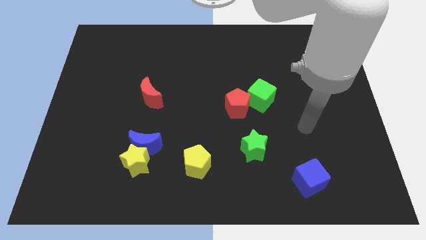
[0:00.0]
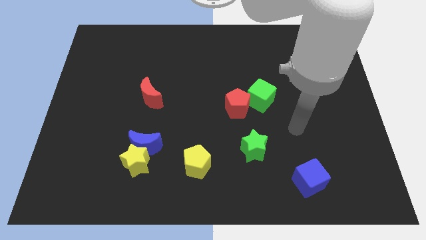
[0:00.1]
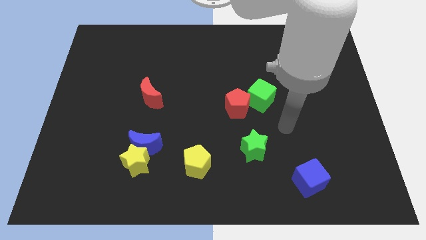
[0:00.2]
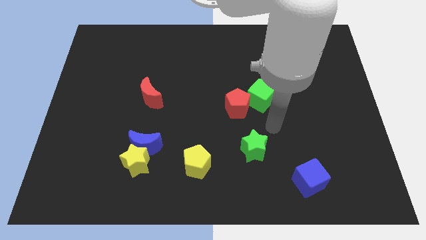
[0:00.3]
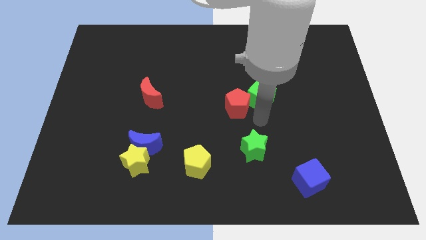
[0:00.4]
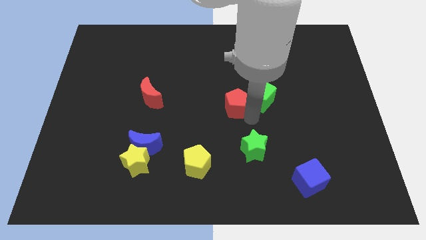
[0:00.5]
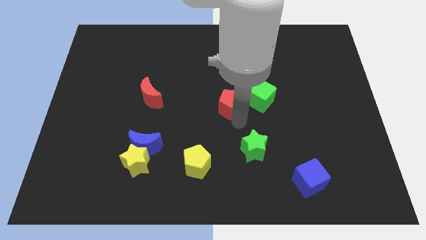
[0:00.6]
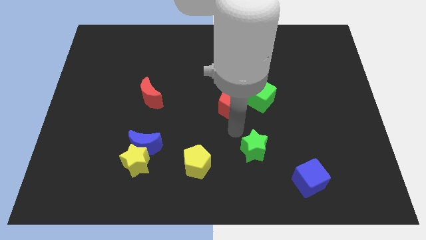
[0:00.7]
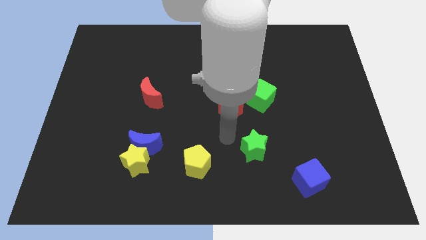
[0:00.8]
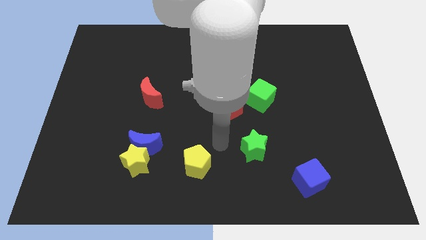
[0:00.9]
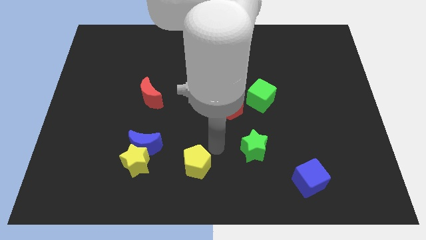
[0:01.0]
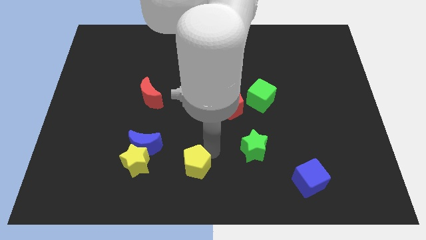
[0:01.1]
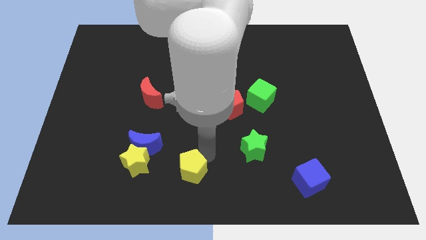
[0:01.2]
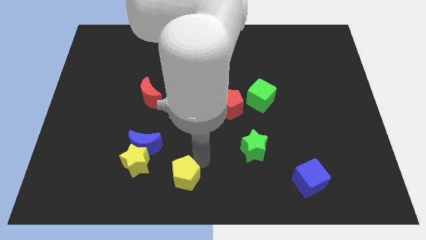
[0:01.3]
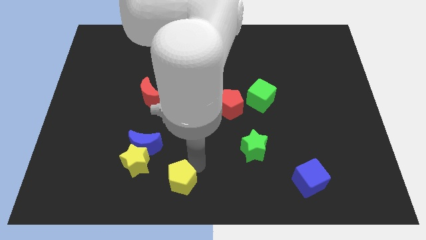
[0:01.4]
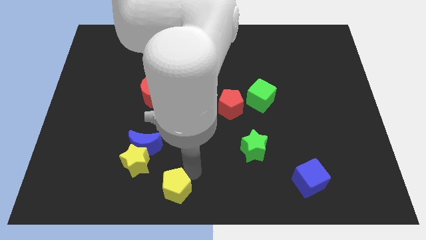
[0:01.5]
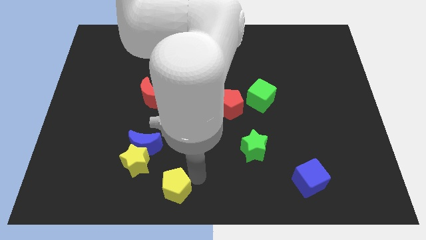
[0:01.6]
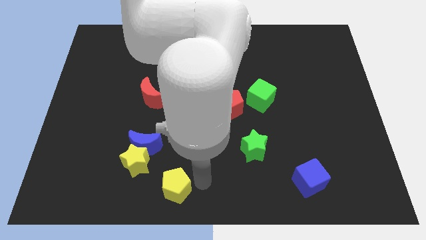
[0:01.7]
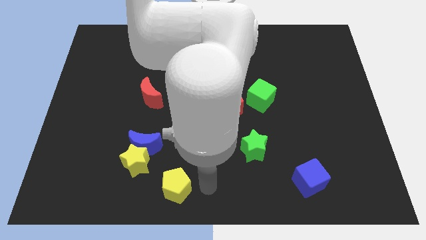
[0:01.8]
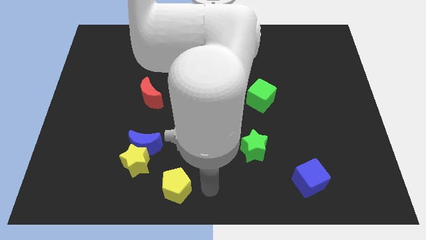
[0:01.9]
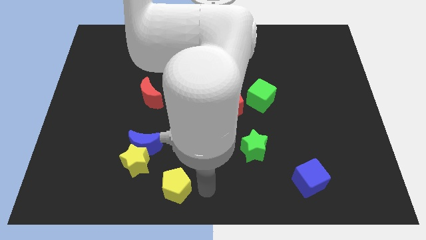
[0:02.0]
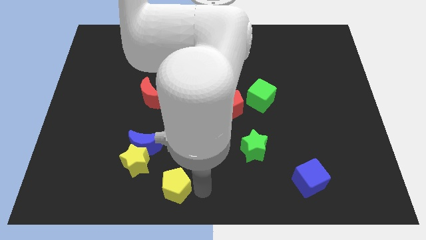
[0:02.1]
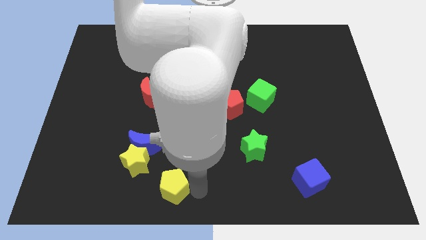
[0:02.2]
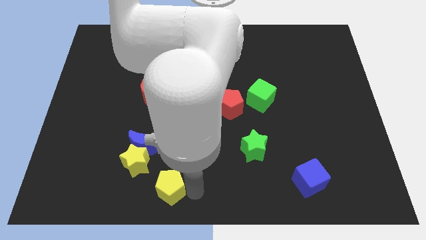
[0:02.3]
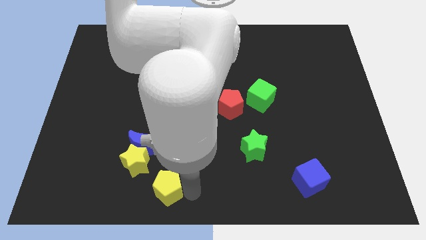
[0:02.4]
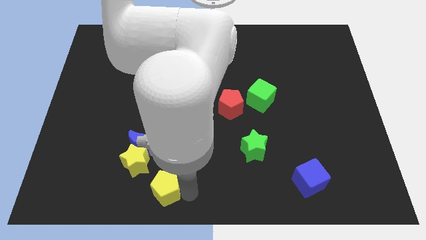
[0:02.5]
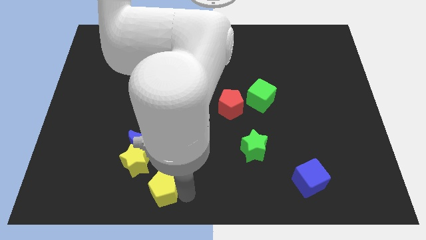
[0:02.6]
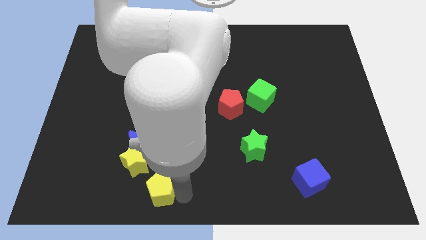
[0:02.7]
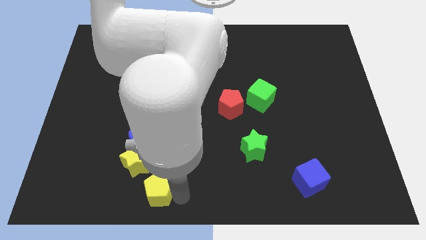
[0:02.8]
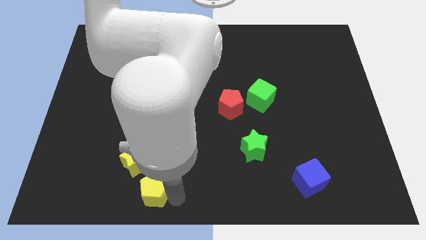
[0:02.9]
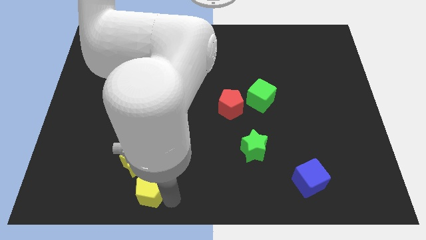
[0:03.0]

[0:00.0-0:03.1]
slightly slide the yellow pentagon left

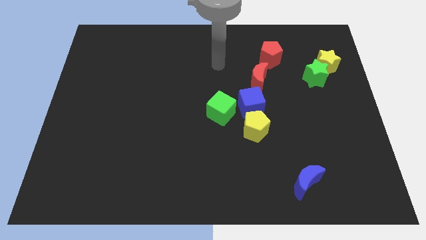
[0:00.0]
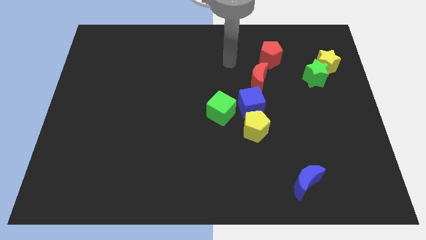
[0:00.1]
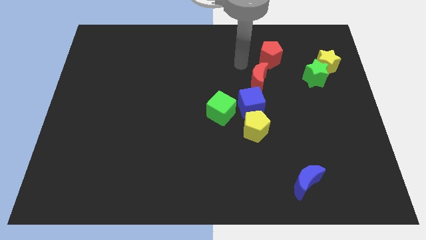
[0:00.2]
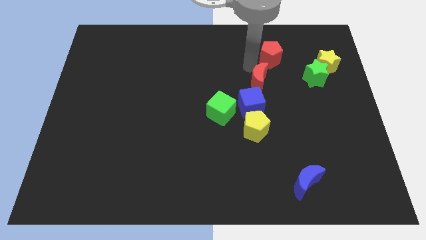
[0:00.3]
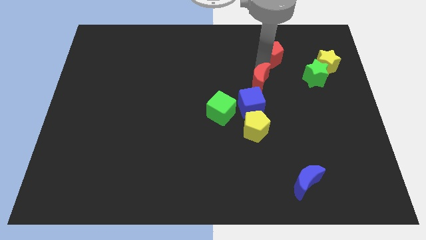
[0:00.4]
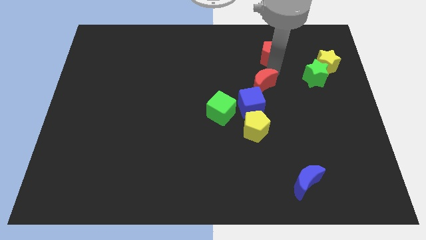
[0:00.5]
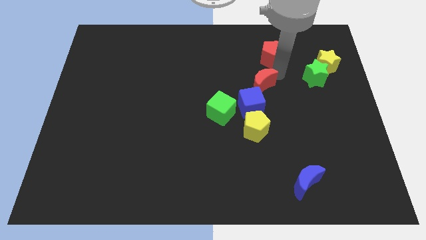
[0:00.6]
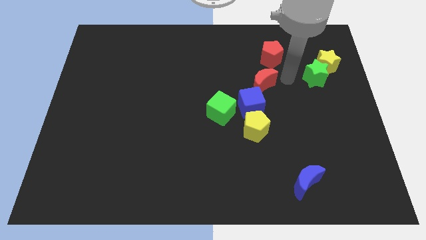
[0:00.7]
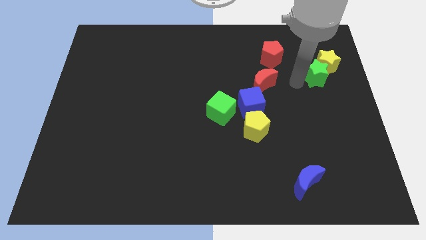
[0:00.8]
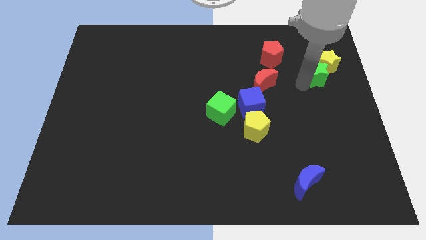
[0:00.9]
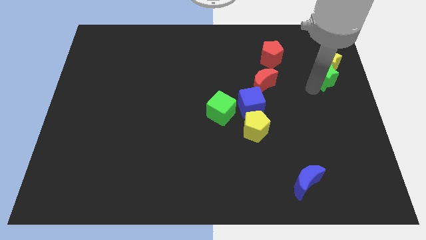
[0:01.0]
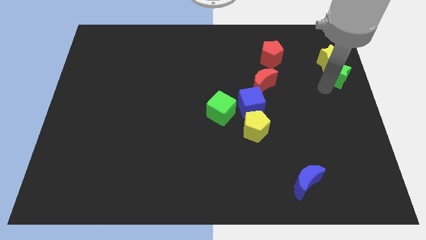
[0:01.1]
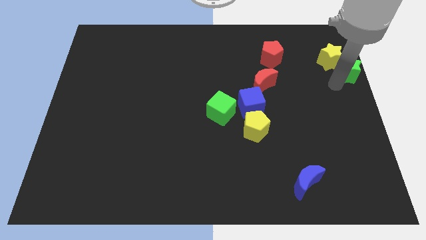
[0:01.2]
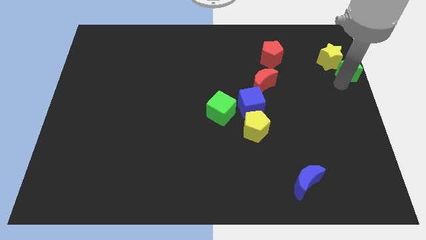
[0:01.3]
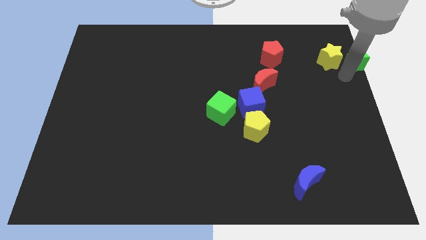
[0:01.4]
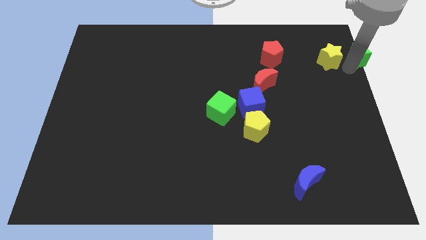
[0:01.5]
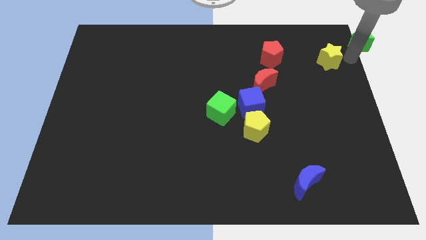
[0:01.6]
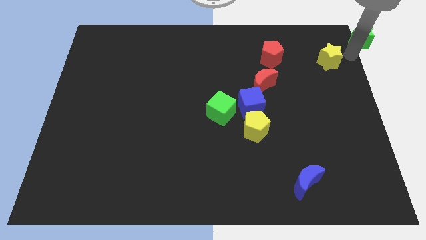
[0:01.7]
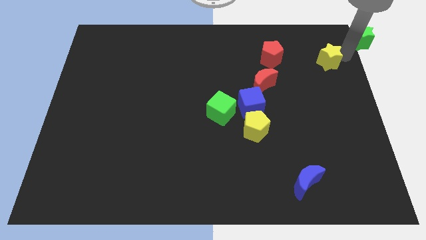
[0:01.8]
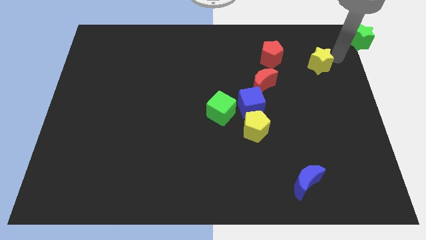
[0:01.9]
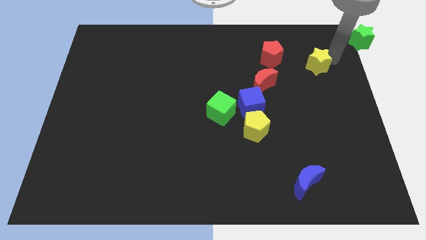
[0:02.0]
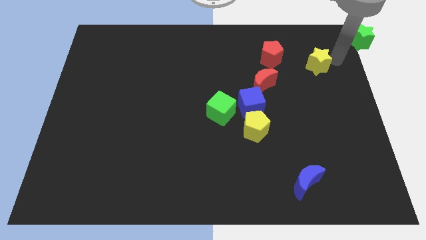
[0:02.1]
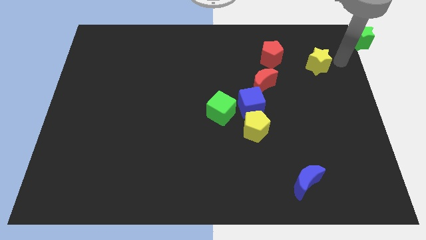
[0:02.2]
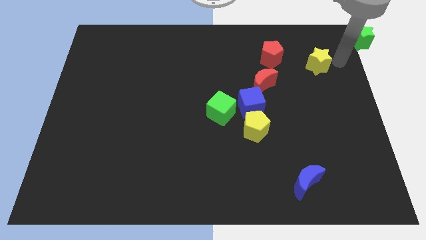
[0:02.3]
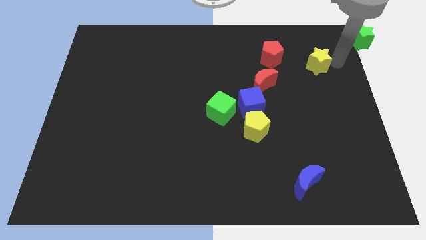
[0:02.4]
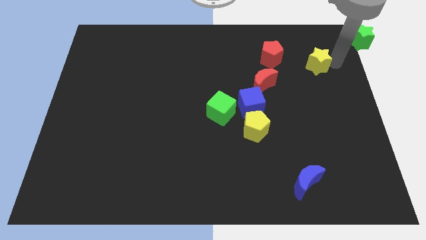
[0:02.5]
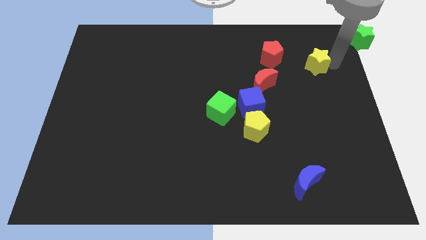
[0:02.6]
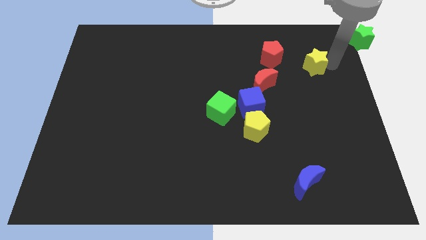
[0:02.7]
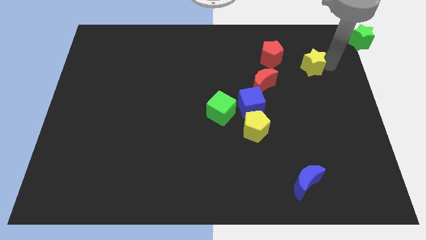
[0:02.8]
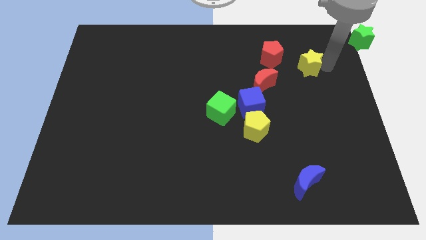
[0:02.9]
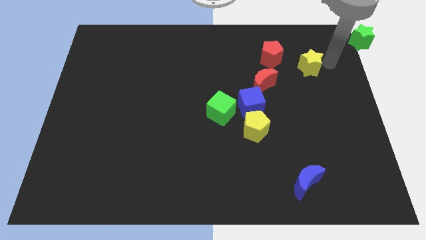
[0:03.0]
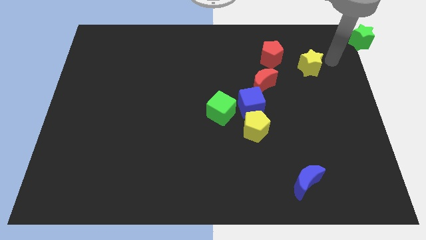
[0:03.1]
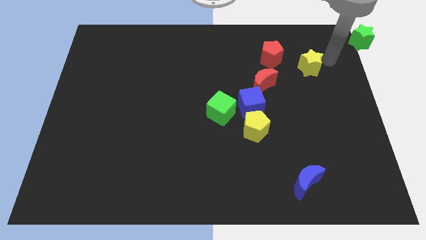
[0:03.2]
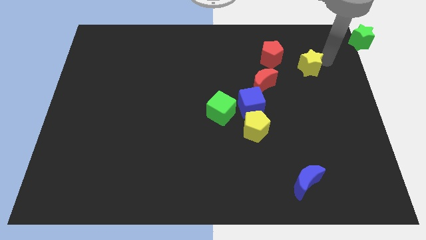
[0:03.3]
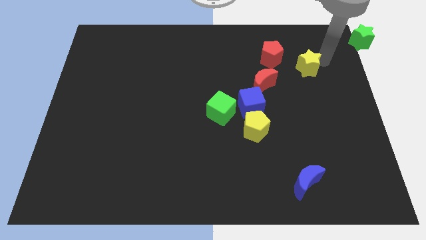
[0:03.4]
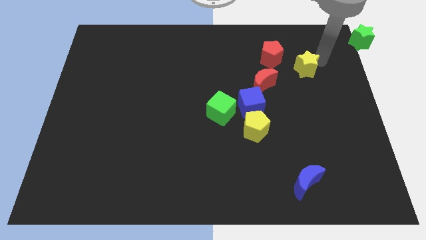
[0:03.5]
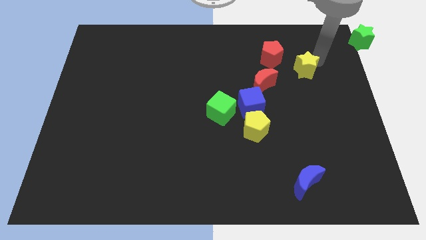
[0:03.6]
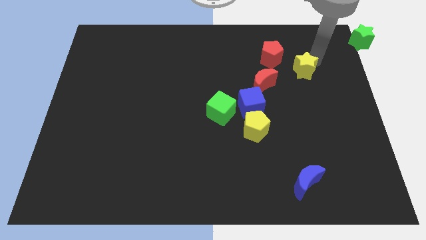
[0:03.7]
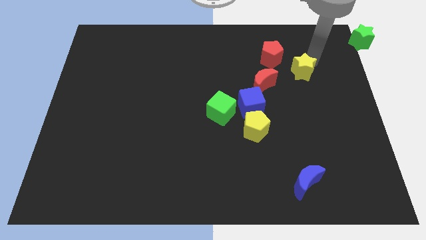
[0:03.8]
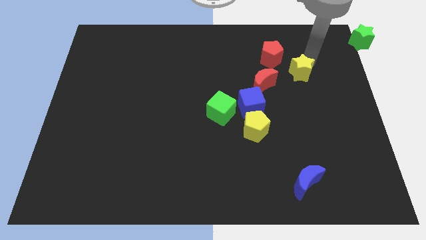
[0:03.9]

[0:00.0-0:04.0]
slightly push the yellow star left

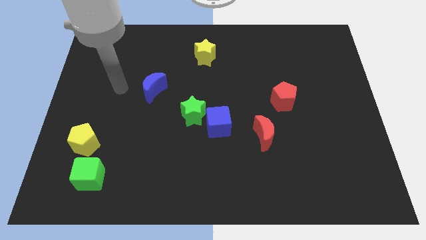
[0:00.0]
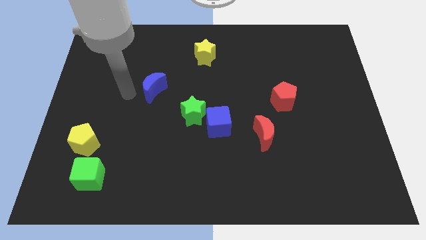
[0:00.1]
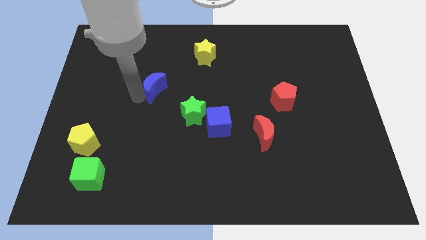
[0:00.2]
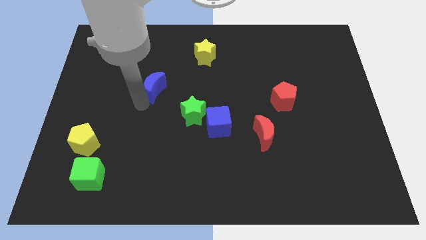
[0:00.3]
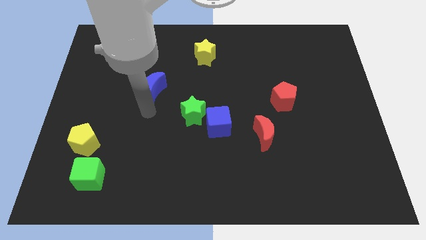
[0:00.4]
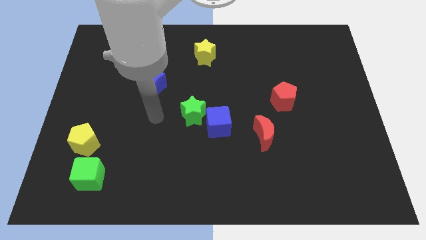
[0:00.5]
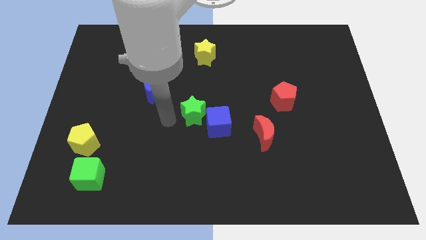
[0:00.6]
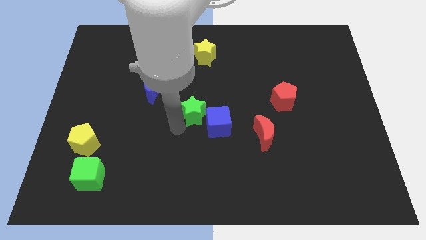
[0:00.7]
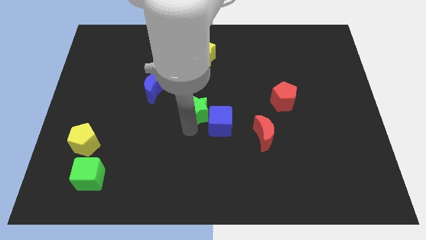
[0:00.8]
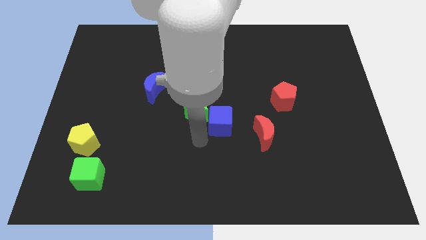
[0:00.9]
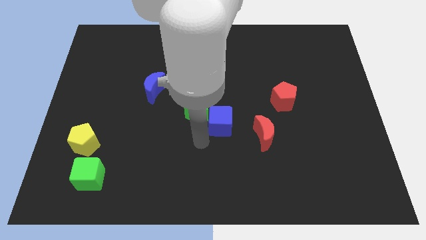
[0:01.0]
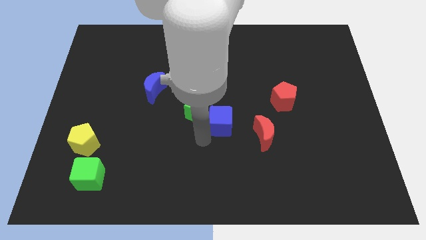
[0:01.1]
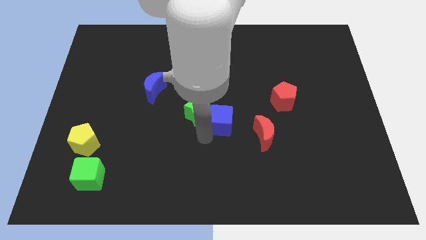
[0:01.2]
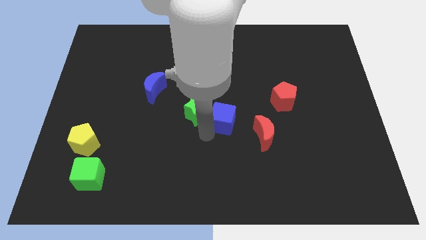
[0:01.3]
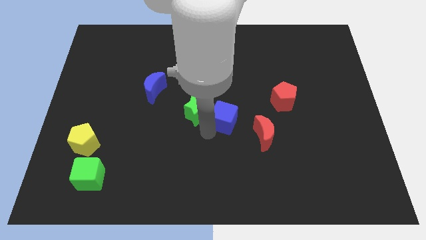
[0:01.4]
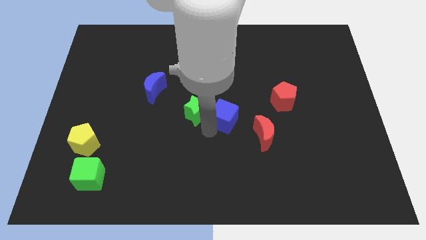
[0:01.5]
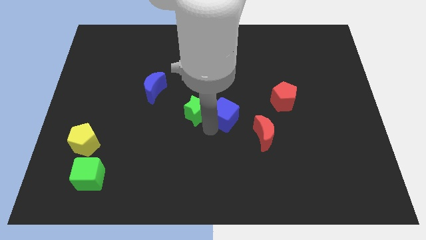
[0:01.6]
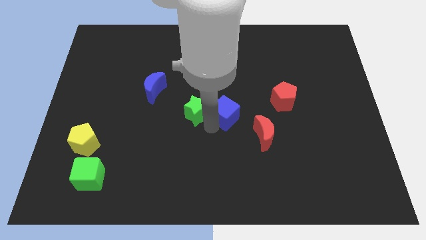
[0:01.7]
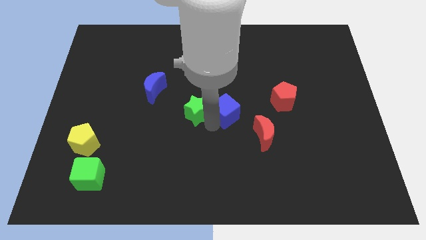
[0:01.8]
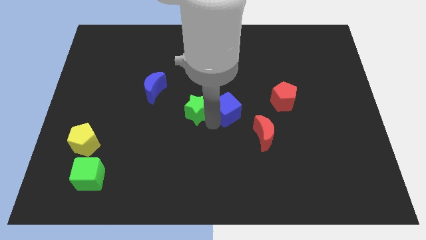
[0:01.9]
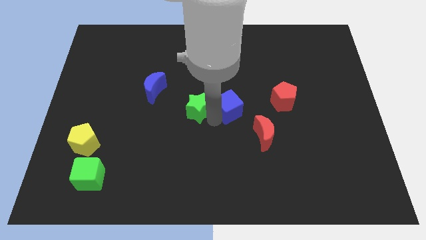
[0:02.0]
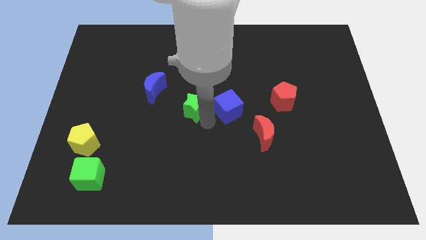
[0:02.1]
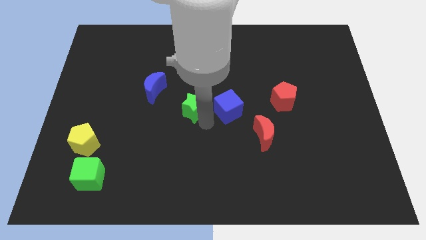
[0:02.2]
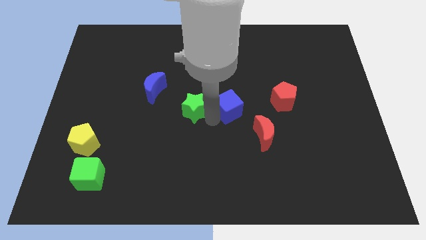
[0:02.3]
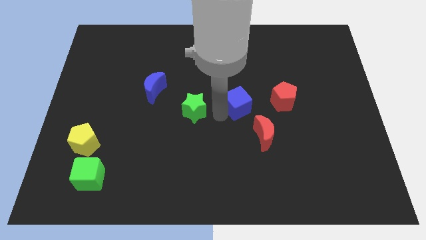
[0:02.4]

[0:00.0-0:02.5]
move the blue cube diagonally upwards and to the right slightly
